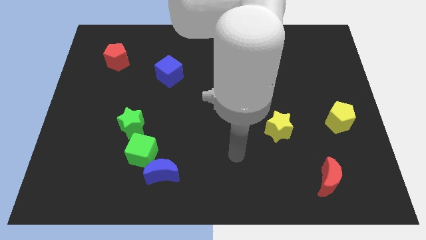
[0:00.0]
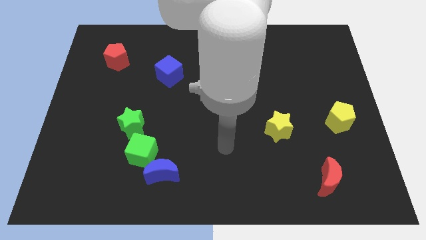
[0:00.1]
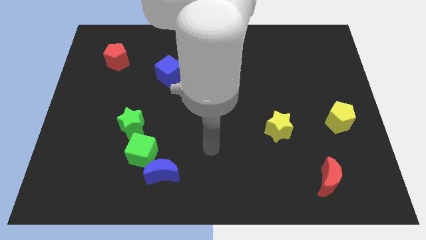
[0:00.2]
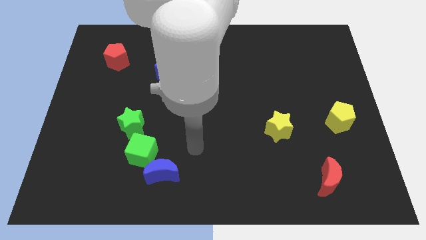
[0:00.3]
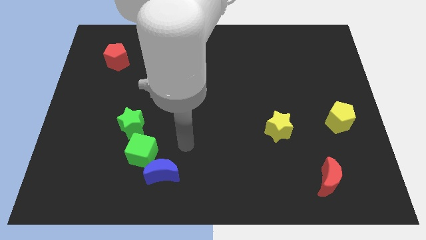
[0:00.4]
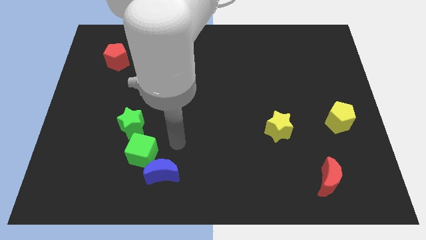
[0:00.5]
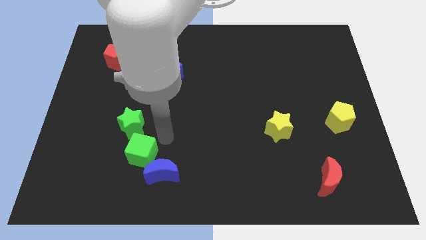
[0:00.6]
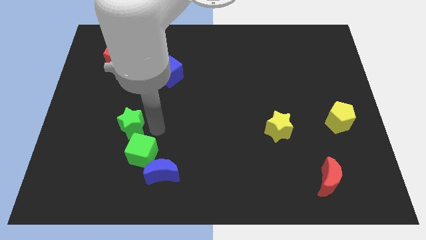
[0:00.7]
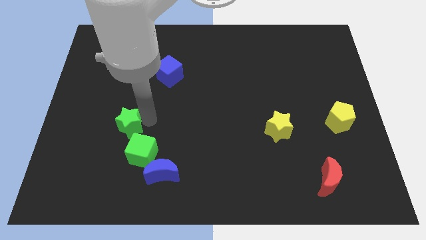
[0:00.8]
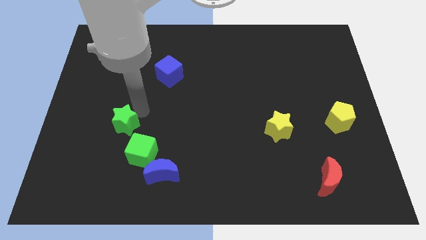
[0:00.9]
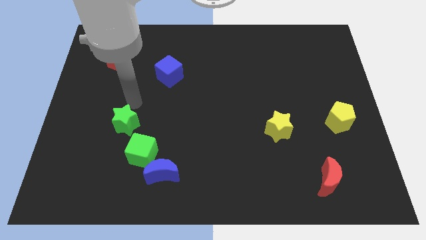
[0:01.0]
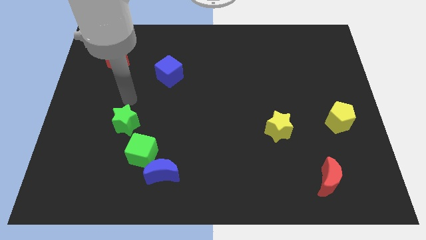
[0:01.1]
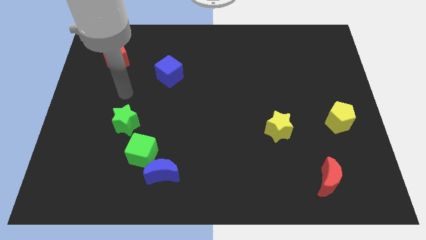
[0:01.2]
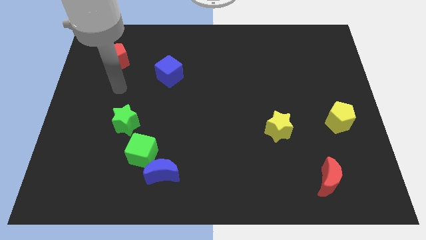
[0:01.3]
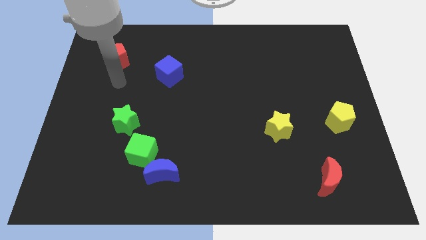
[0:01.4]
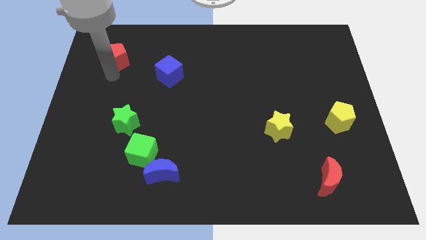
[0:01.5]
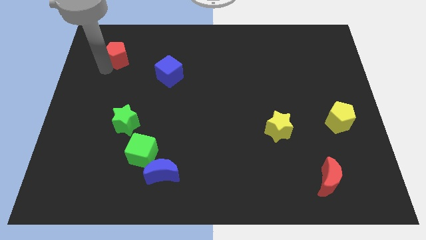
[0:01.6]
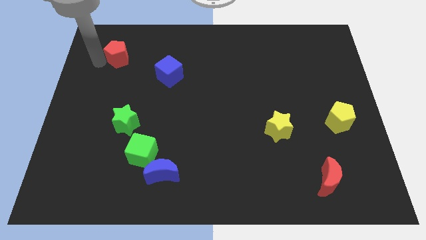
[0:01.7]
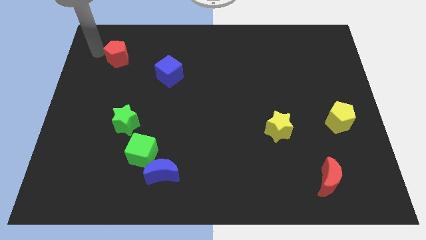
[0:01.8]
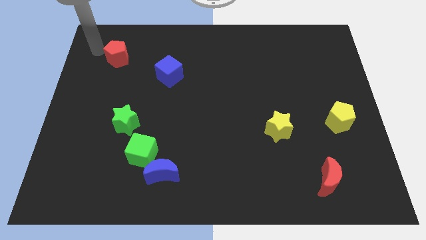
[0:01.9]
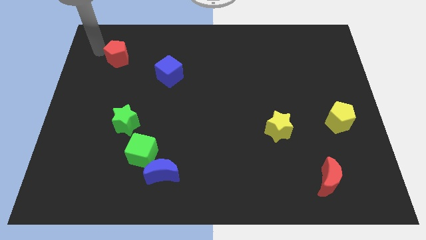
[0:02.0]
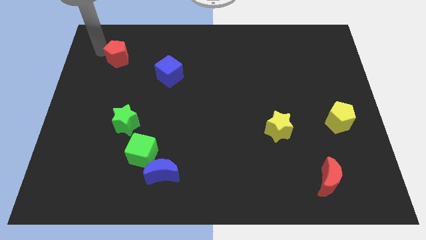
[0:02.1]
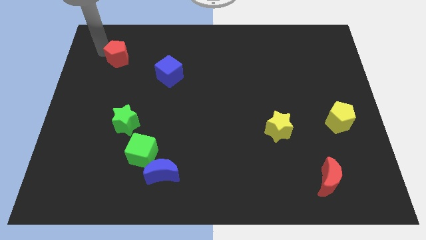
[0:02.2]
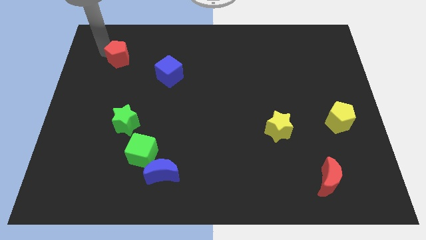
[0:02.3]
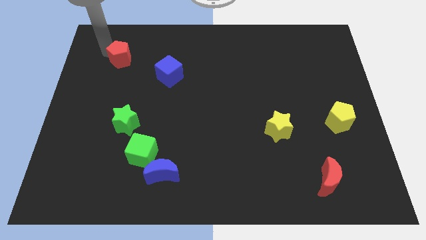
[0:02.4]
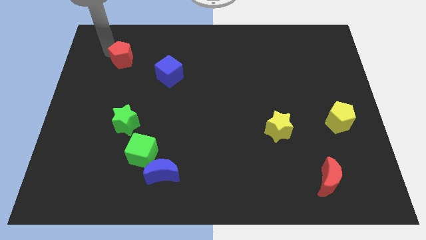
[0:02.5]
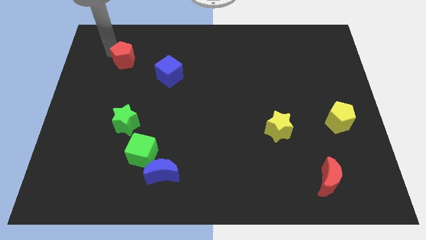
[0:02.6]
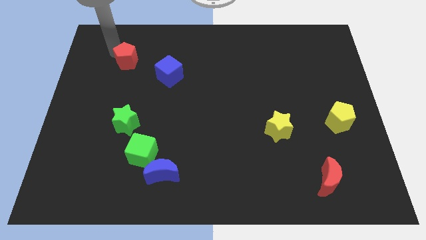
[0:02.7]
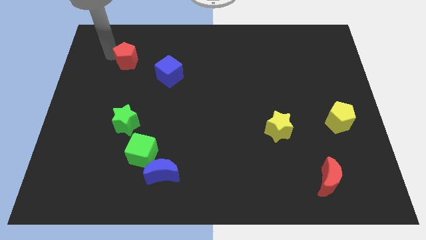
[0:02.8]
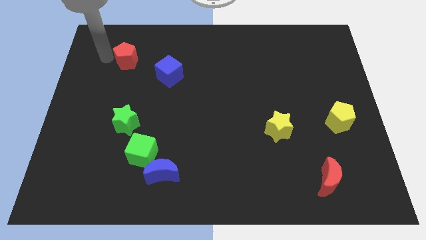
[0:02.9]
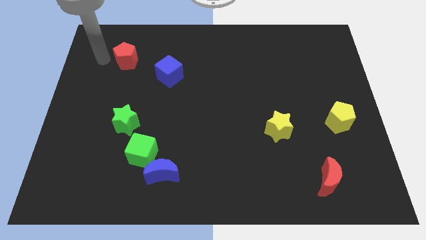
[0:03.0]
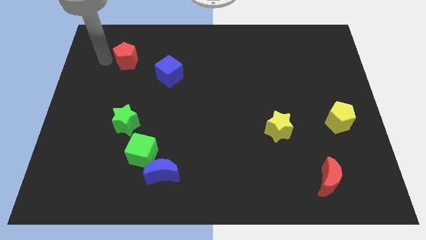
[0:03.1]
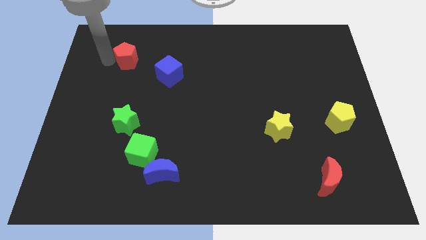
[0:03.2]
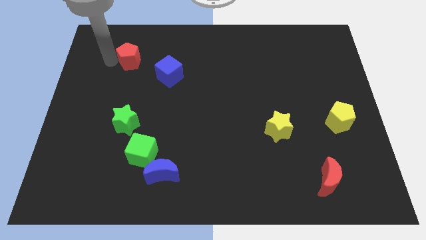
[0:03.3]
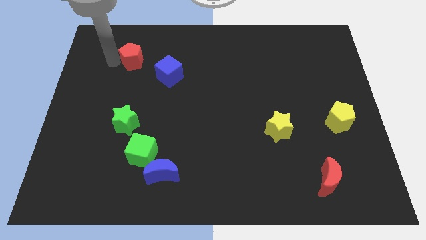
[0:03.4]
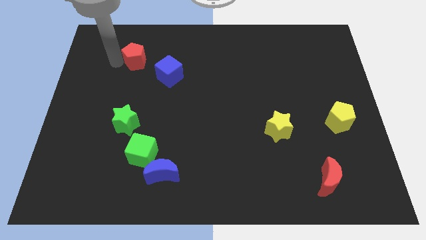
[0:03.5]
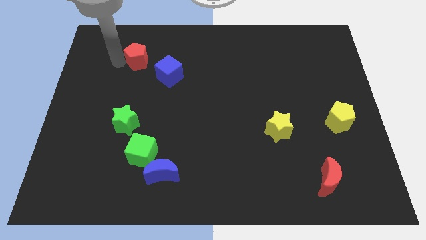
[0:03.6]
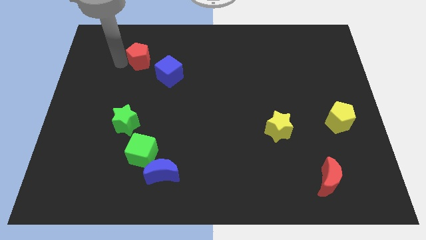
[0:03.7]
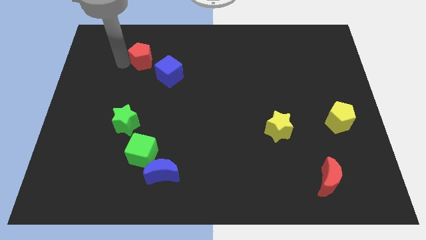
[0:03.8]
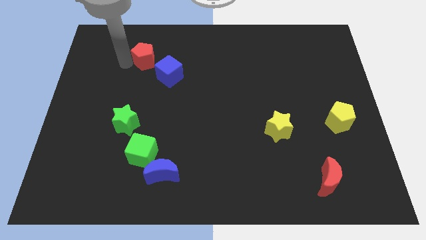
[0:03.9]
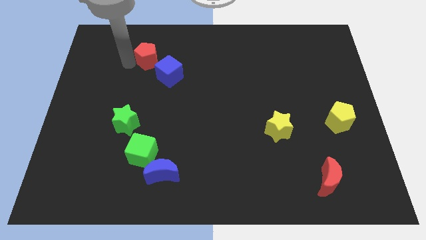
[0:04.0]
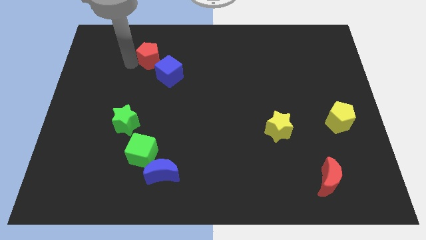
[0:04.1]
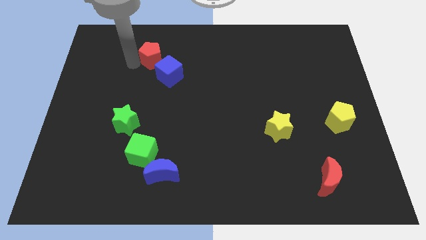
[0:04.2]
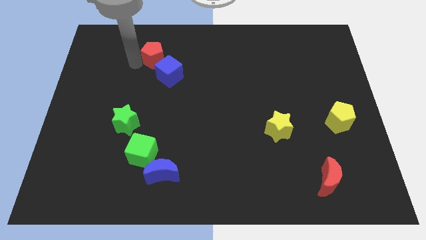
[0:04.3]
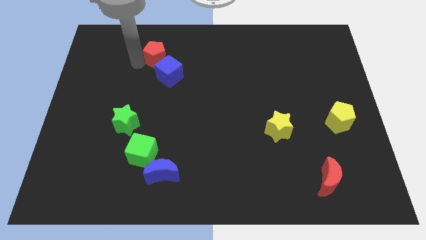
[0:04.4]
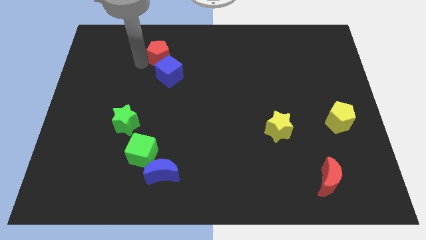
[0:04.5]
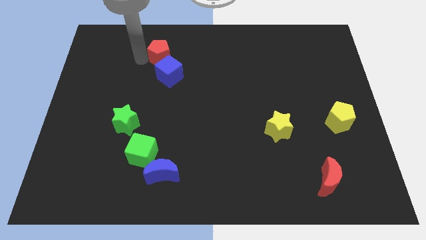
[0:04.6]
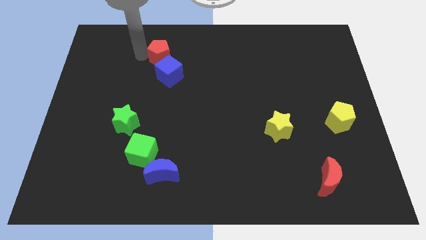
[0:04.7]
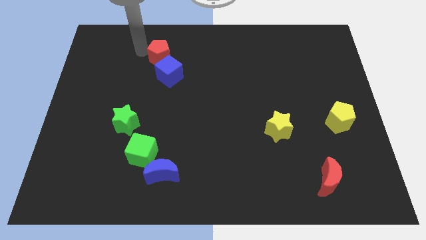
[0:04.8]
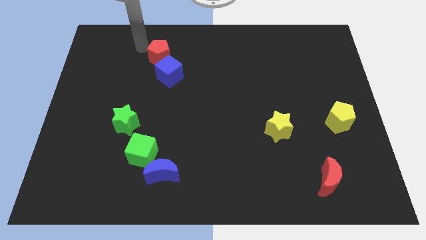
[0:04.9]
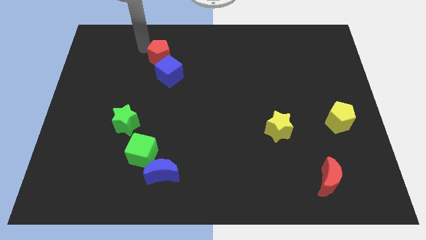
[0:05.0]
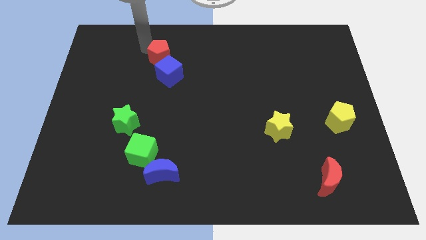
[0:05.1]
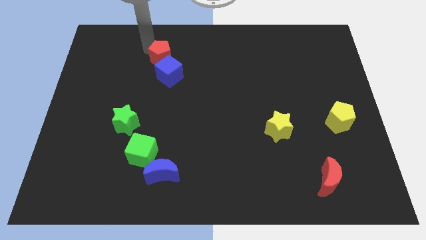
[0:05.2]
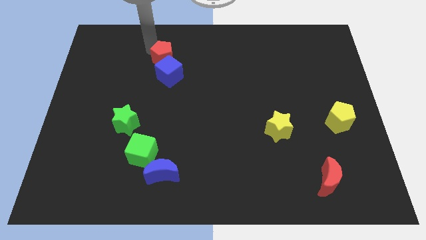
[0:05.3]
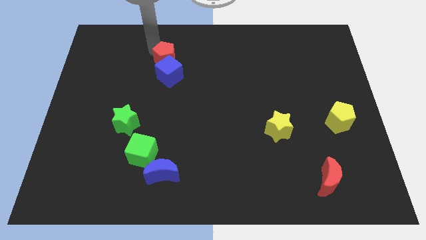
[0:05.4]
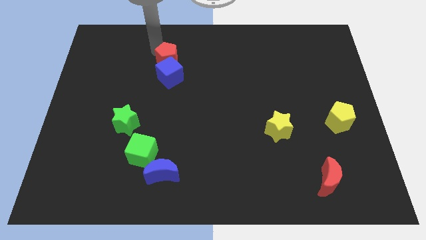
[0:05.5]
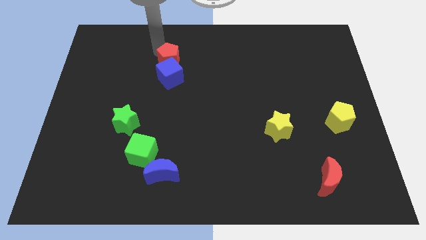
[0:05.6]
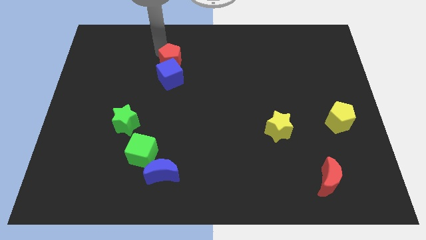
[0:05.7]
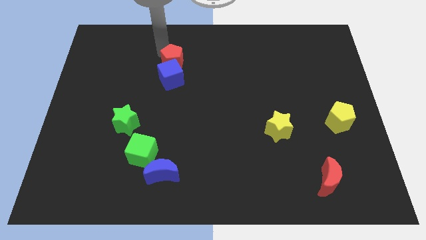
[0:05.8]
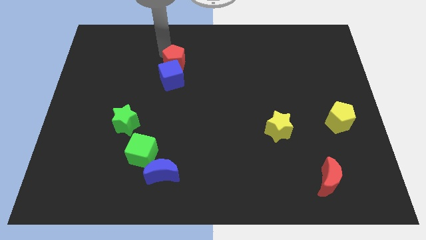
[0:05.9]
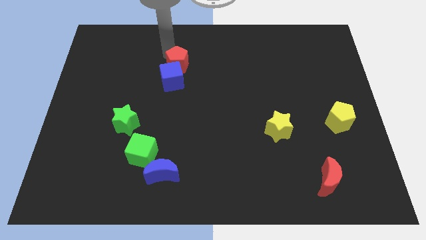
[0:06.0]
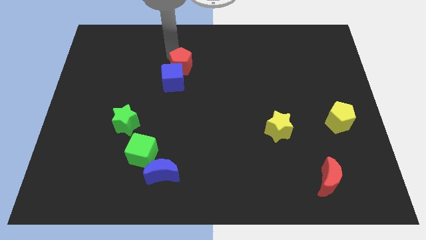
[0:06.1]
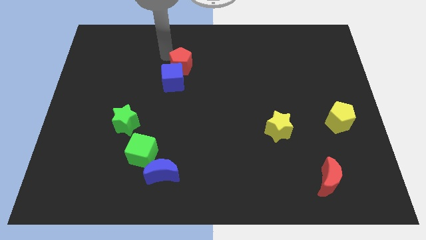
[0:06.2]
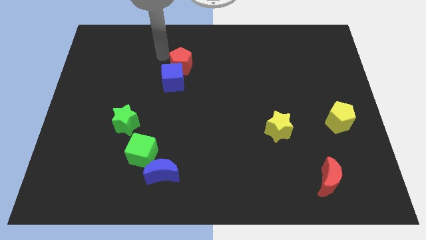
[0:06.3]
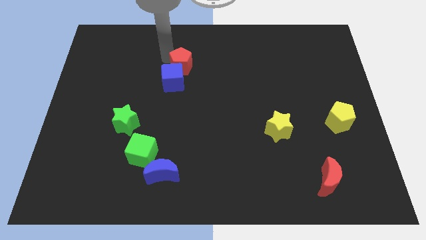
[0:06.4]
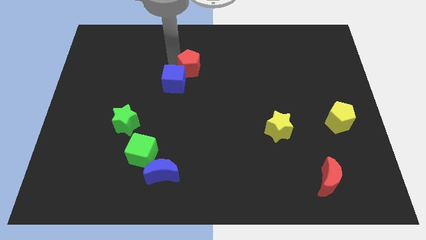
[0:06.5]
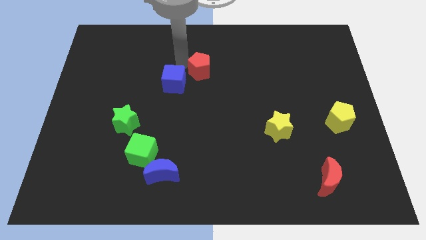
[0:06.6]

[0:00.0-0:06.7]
put the red pentagon to the right side of the blue cube

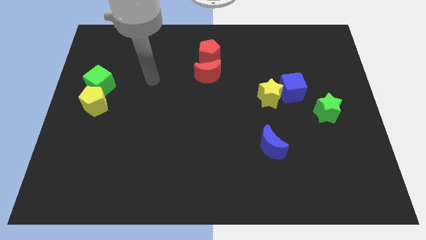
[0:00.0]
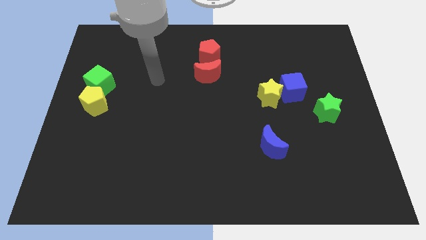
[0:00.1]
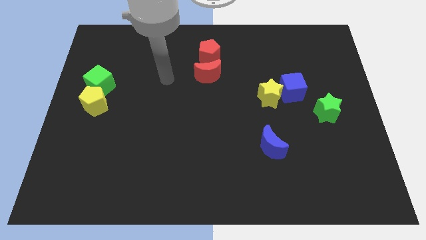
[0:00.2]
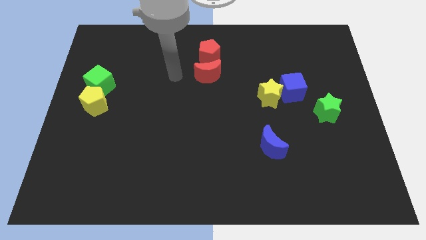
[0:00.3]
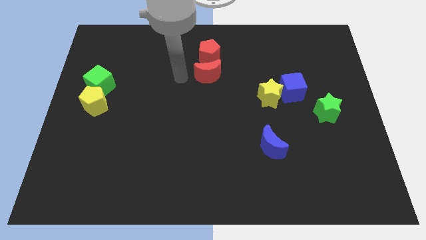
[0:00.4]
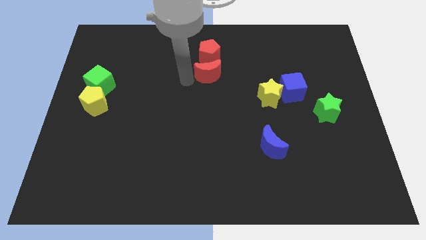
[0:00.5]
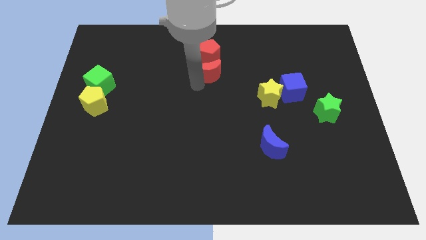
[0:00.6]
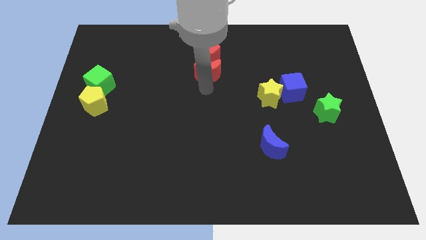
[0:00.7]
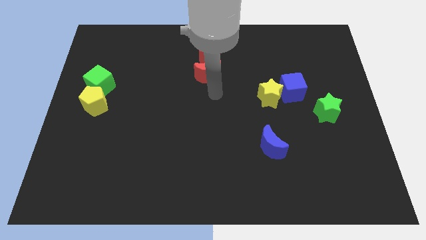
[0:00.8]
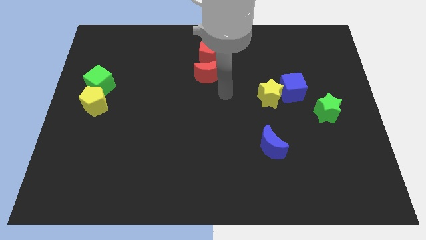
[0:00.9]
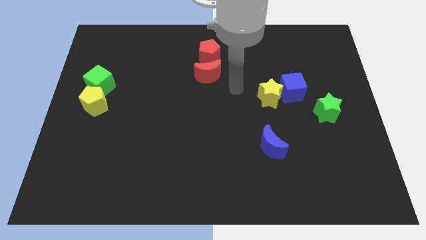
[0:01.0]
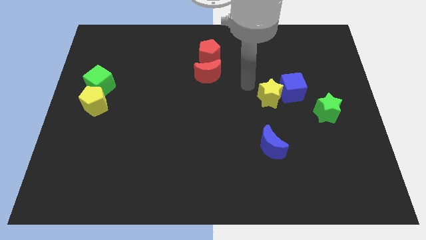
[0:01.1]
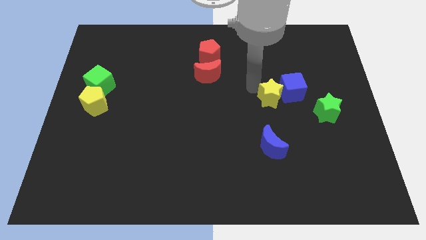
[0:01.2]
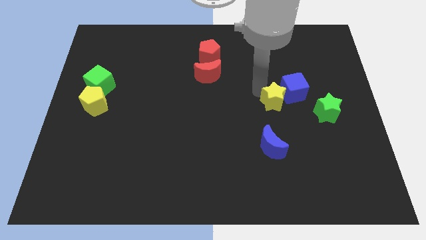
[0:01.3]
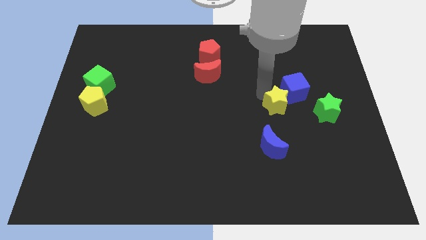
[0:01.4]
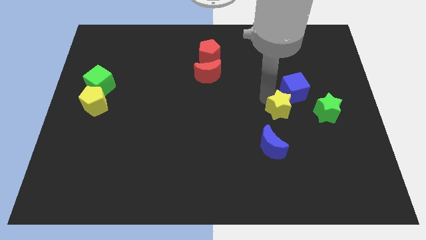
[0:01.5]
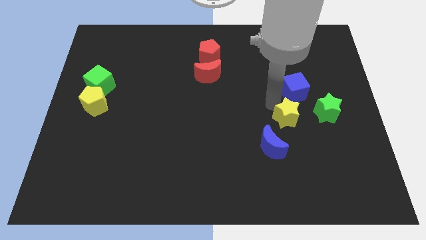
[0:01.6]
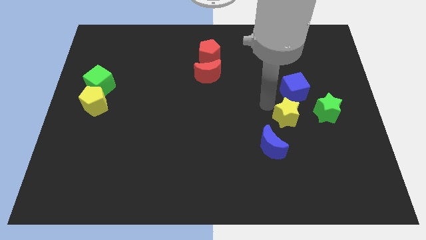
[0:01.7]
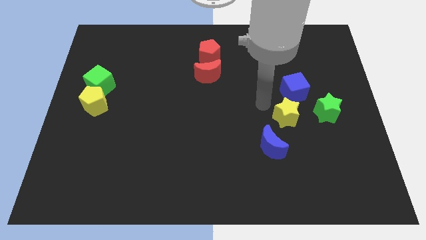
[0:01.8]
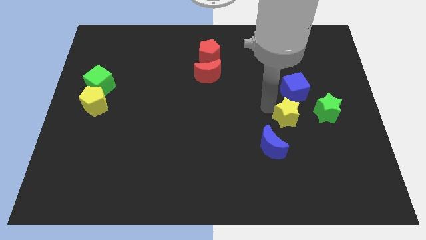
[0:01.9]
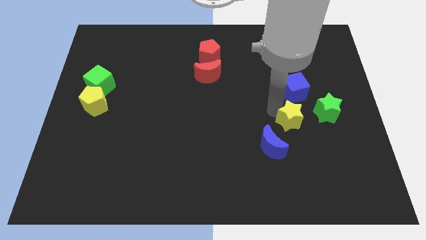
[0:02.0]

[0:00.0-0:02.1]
move the yellow star to the bottom left side of the green star
